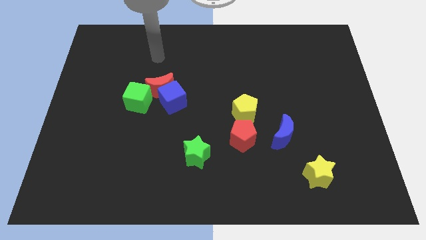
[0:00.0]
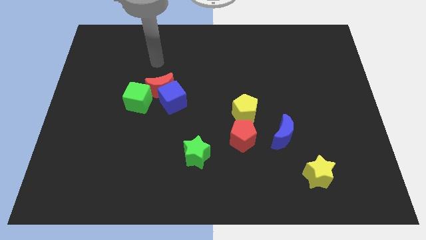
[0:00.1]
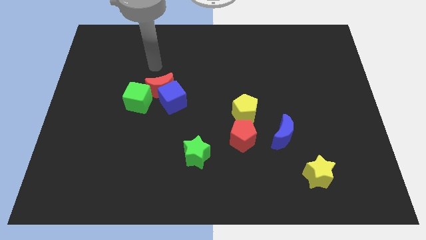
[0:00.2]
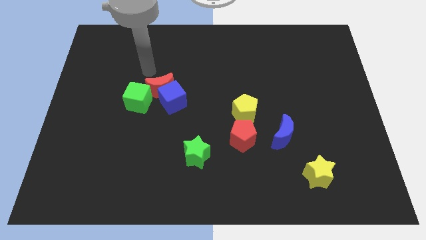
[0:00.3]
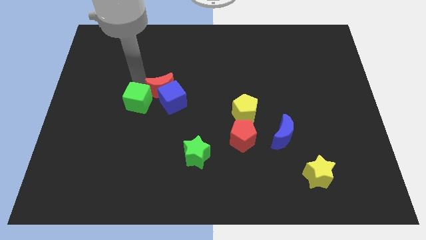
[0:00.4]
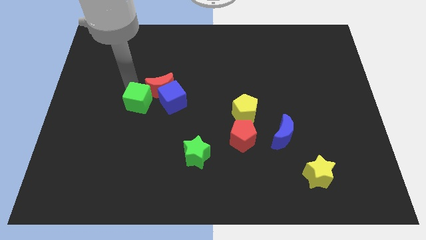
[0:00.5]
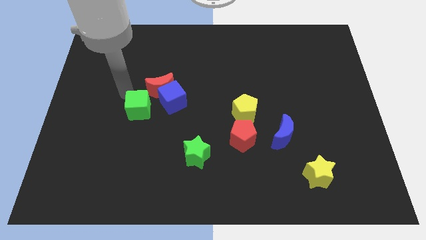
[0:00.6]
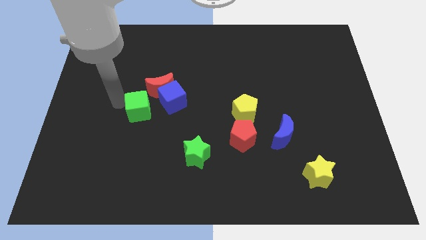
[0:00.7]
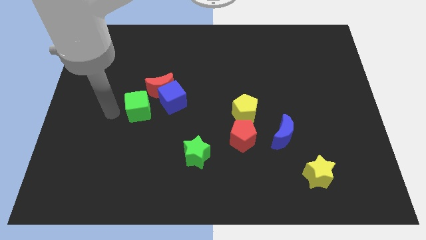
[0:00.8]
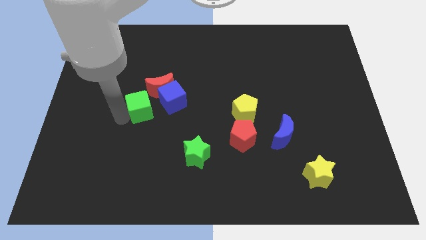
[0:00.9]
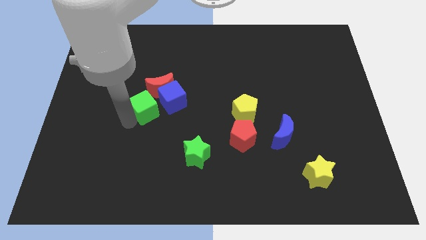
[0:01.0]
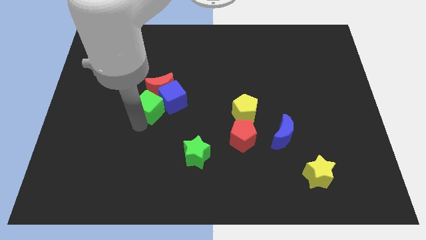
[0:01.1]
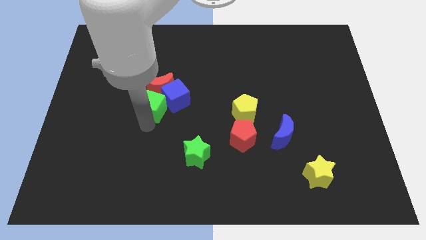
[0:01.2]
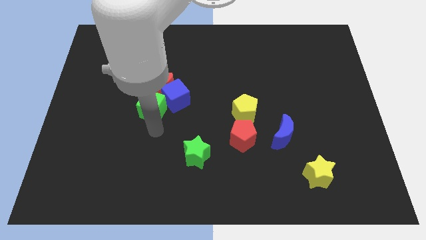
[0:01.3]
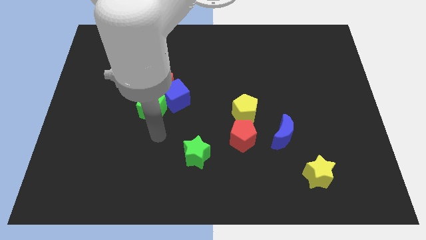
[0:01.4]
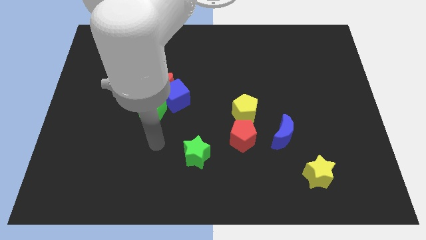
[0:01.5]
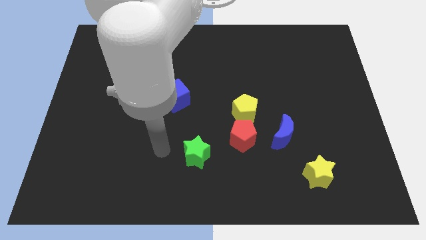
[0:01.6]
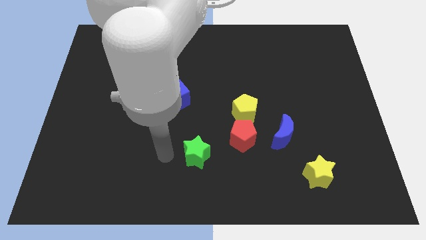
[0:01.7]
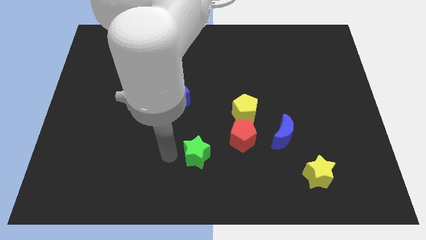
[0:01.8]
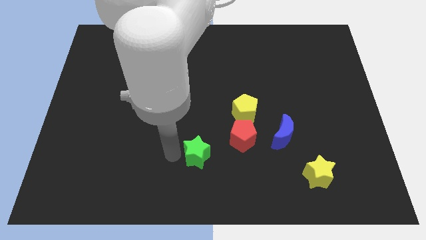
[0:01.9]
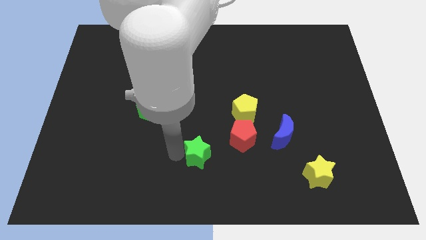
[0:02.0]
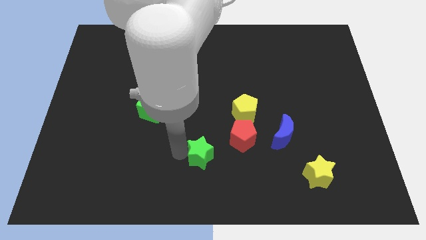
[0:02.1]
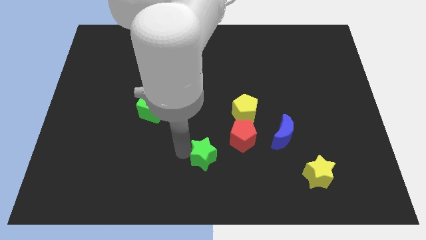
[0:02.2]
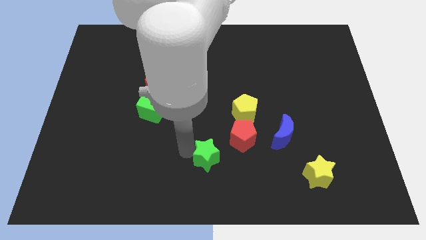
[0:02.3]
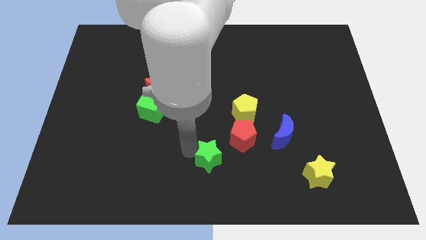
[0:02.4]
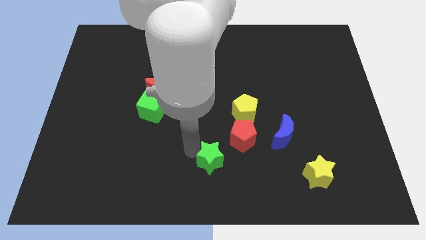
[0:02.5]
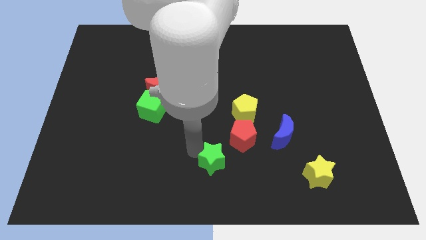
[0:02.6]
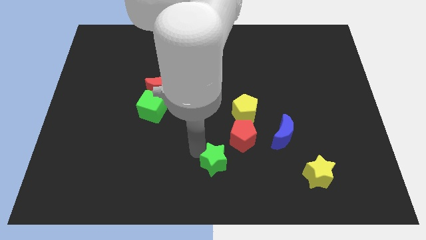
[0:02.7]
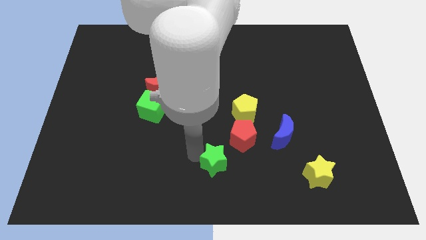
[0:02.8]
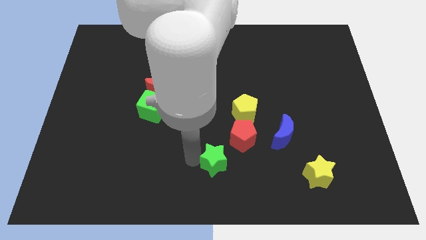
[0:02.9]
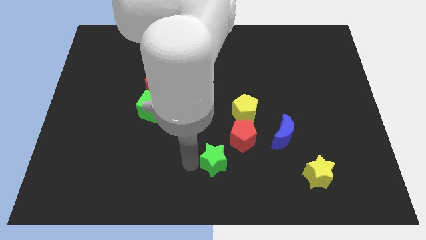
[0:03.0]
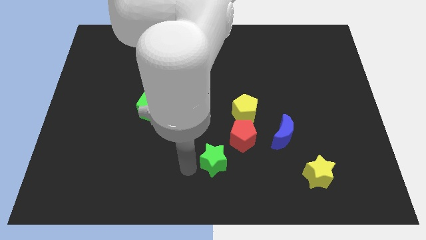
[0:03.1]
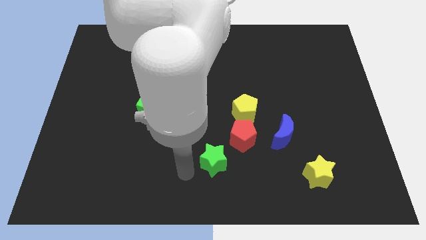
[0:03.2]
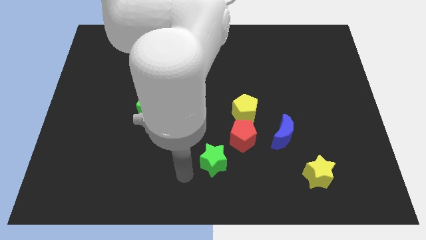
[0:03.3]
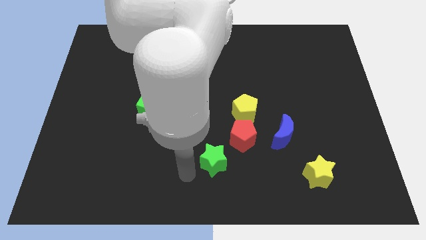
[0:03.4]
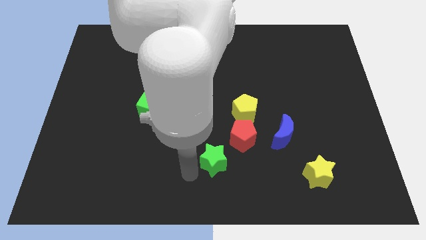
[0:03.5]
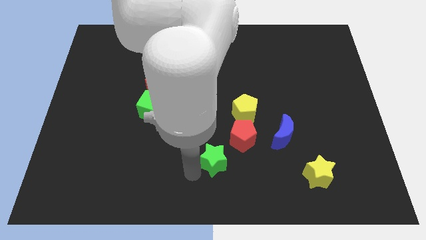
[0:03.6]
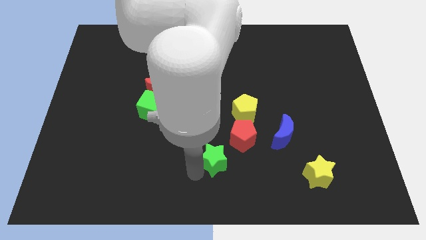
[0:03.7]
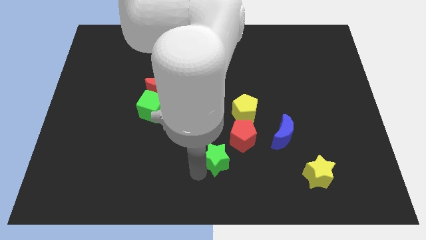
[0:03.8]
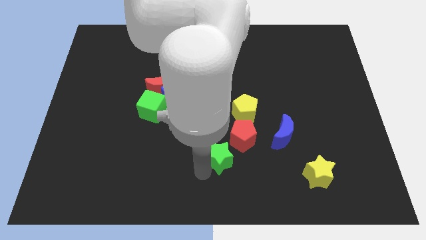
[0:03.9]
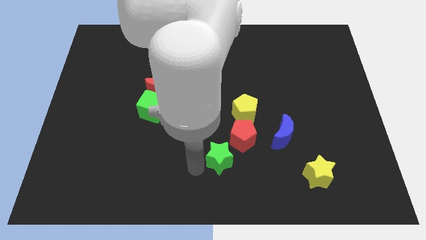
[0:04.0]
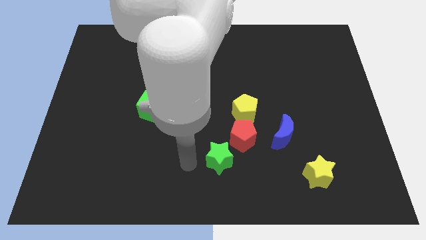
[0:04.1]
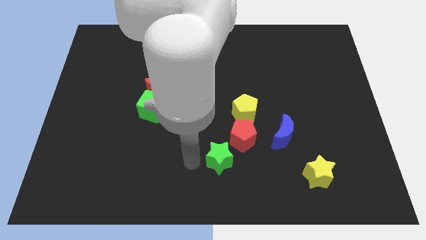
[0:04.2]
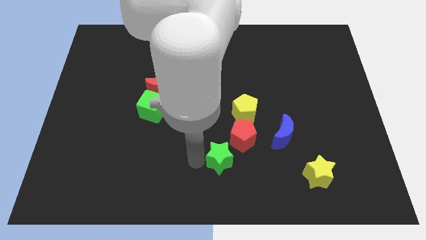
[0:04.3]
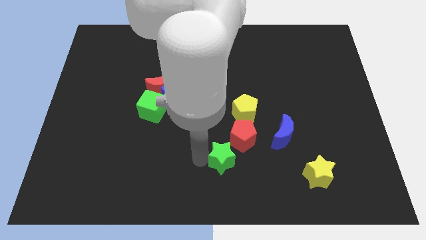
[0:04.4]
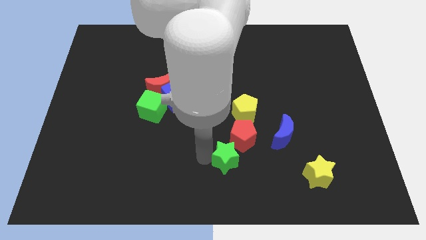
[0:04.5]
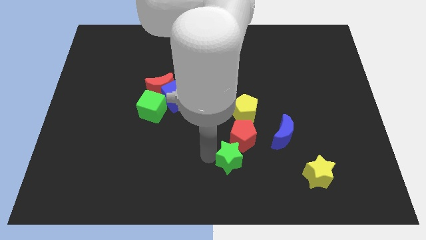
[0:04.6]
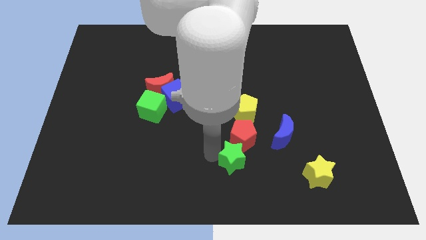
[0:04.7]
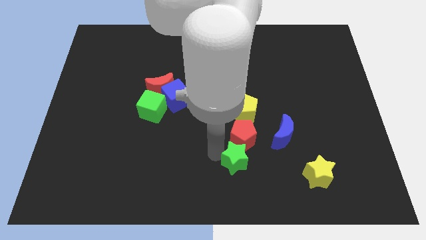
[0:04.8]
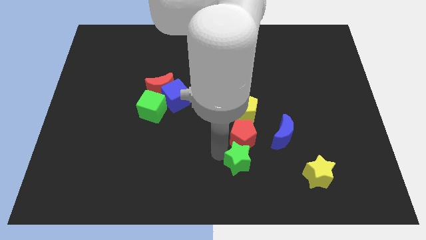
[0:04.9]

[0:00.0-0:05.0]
slide the green star to the bottom left side of the blue moon

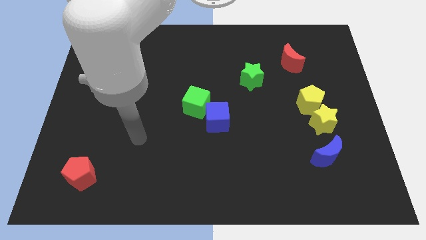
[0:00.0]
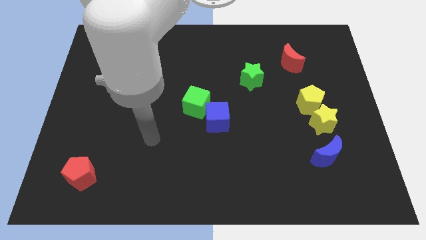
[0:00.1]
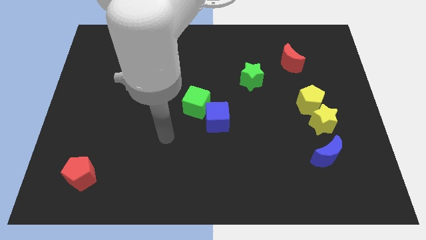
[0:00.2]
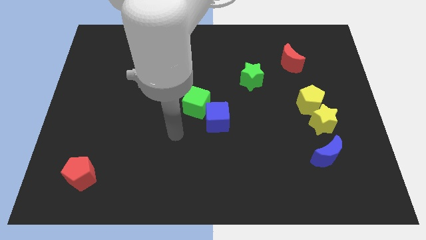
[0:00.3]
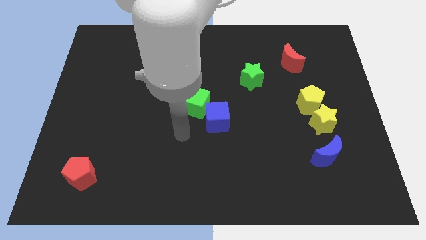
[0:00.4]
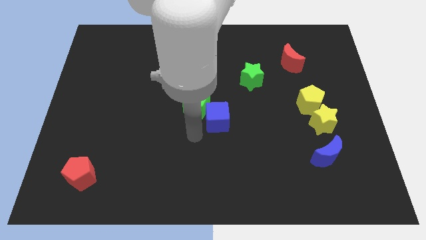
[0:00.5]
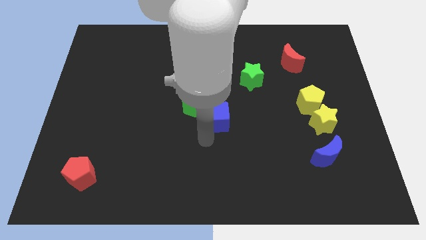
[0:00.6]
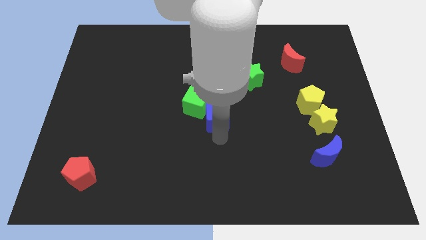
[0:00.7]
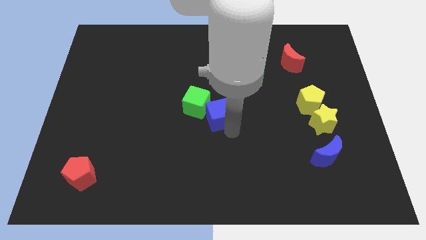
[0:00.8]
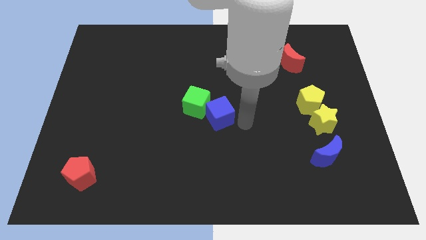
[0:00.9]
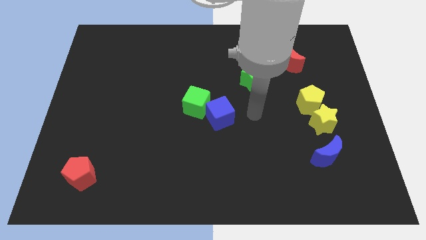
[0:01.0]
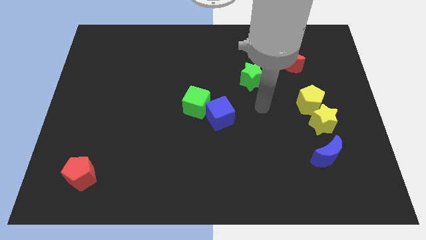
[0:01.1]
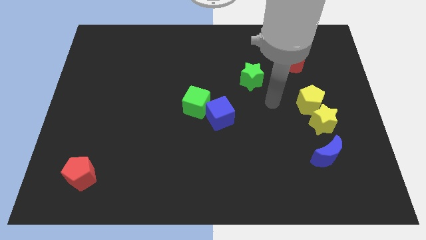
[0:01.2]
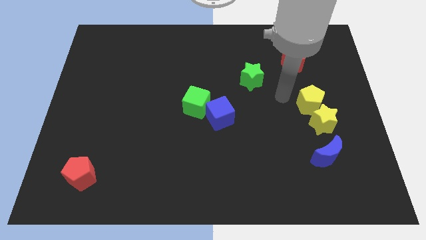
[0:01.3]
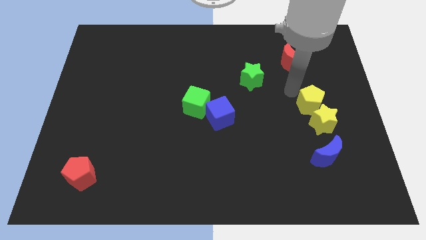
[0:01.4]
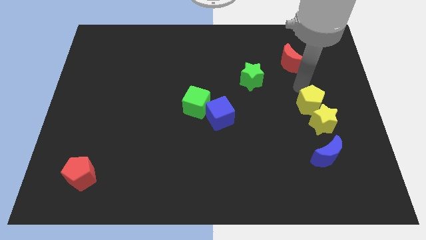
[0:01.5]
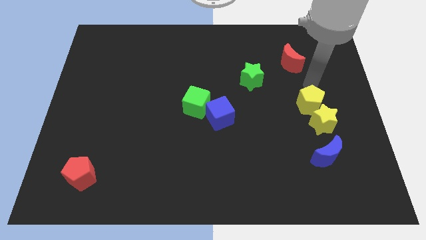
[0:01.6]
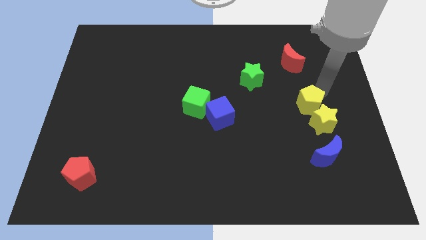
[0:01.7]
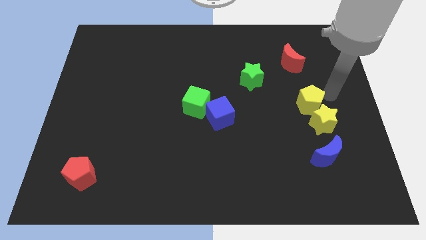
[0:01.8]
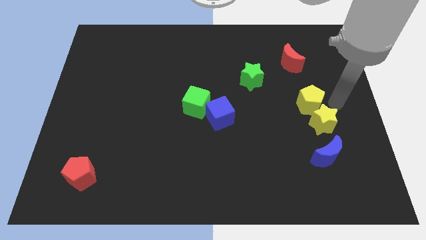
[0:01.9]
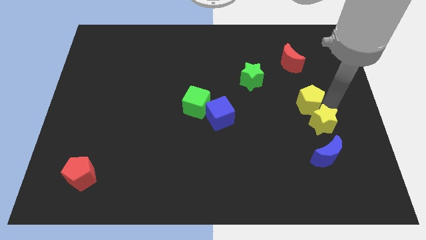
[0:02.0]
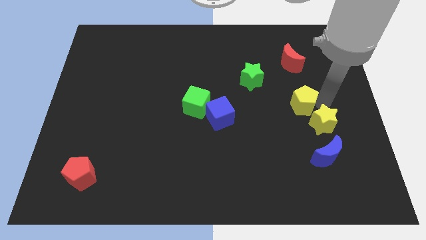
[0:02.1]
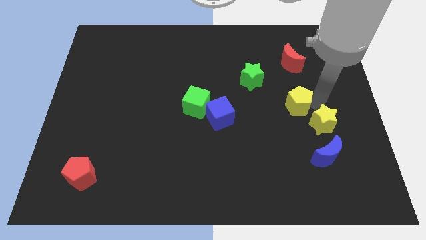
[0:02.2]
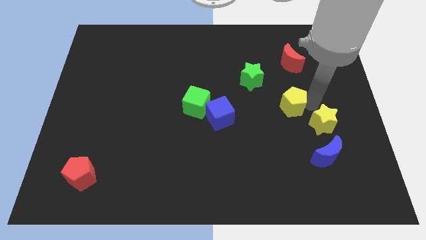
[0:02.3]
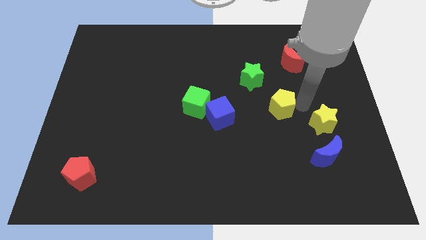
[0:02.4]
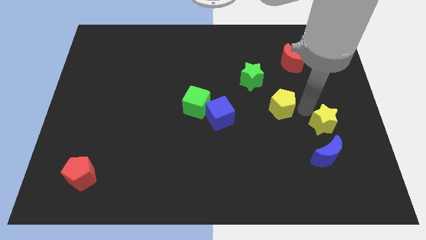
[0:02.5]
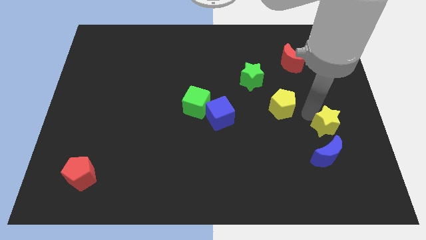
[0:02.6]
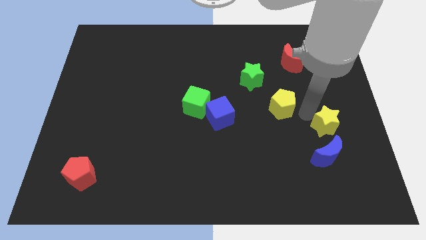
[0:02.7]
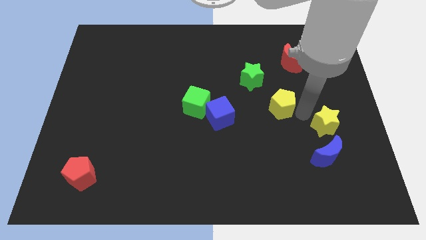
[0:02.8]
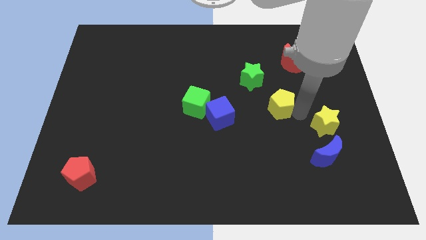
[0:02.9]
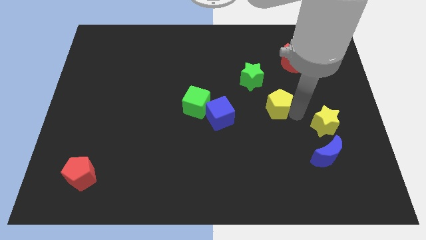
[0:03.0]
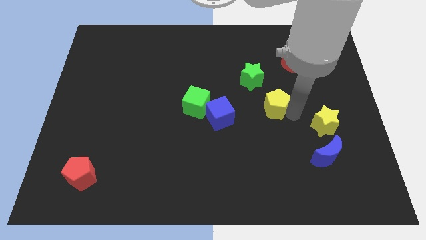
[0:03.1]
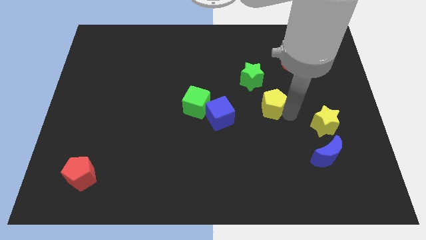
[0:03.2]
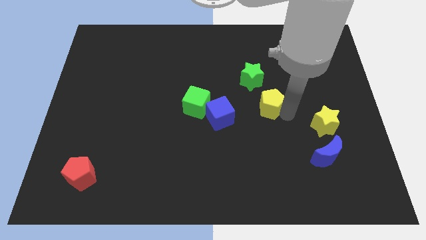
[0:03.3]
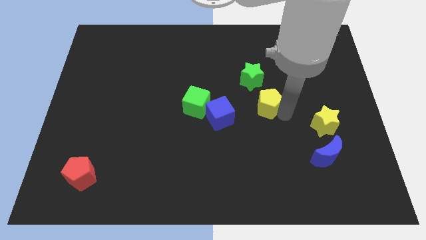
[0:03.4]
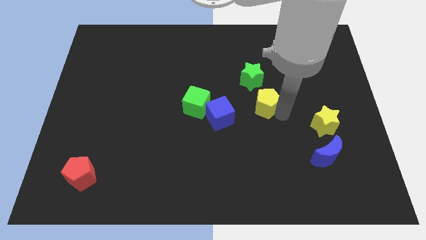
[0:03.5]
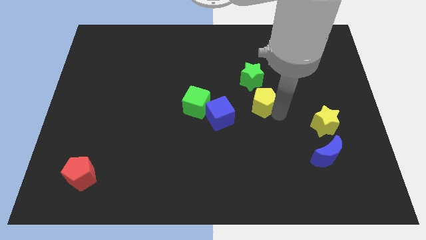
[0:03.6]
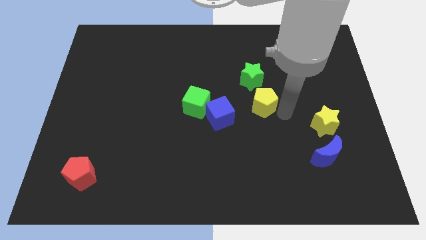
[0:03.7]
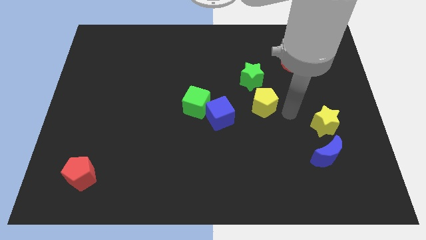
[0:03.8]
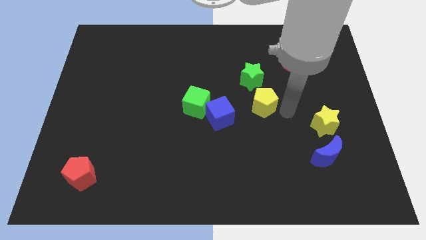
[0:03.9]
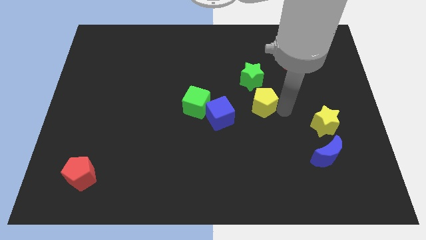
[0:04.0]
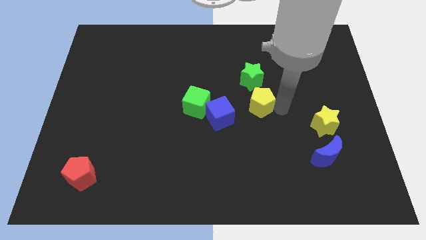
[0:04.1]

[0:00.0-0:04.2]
move the yellow pentagon to the top right of the blue cube
